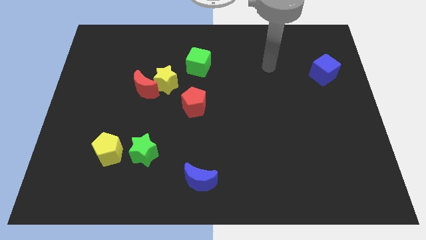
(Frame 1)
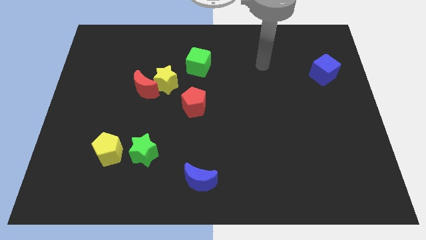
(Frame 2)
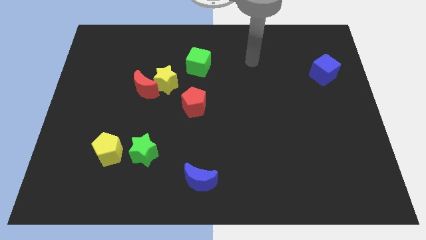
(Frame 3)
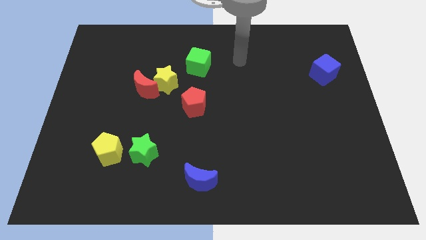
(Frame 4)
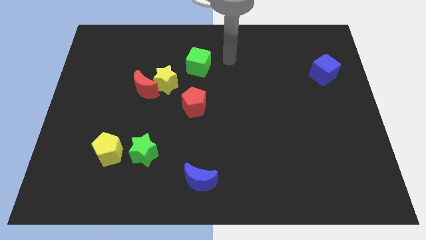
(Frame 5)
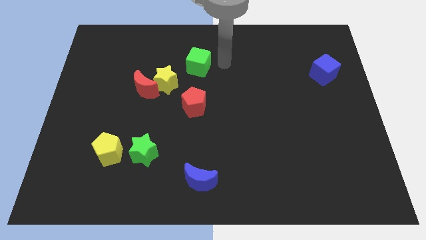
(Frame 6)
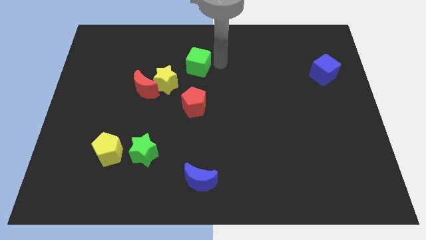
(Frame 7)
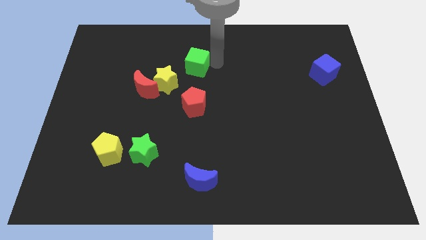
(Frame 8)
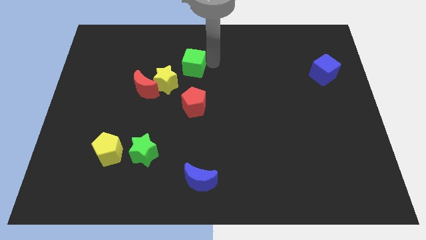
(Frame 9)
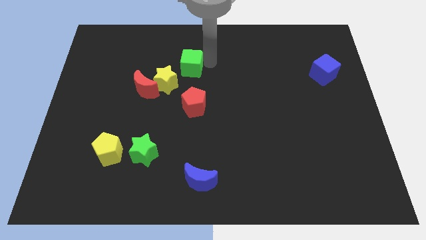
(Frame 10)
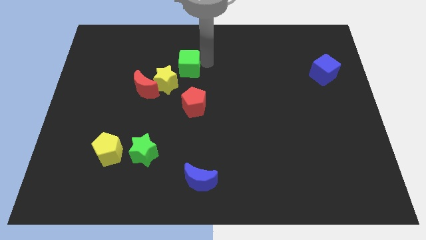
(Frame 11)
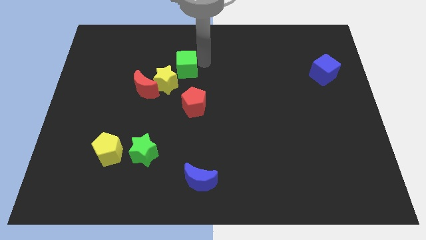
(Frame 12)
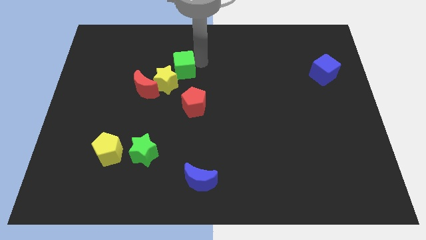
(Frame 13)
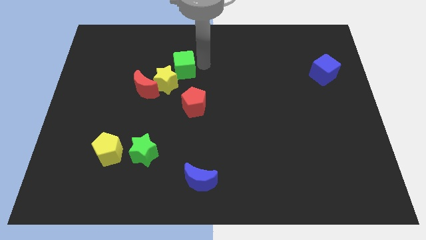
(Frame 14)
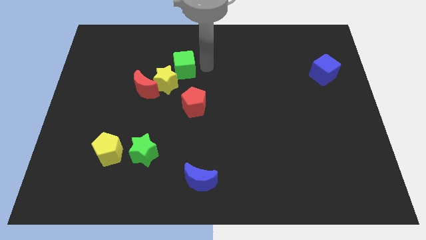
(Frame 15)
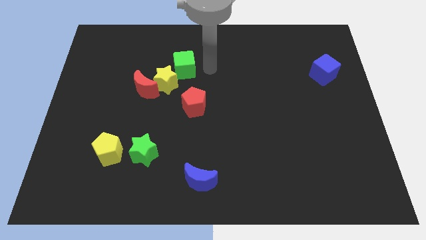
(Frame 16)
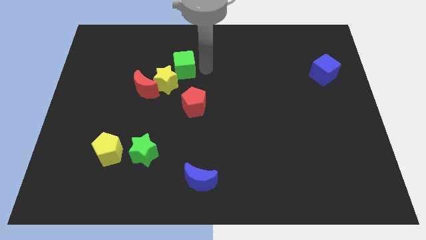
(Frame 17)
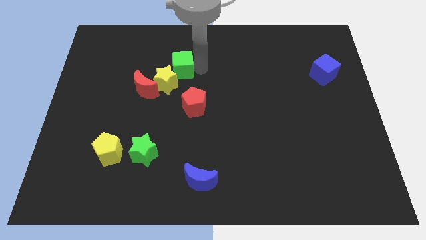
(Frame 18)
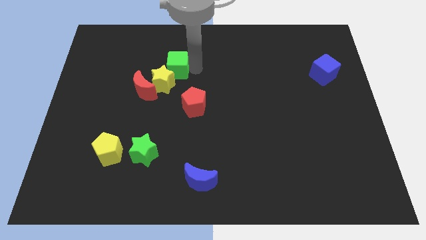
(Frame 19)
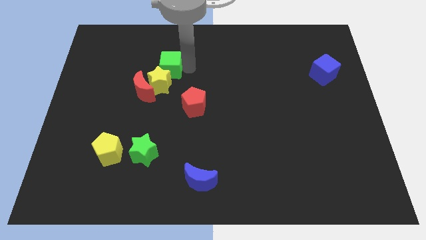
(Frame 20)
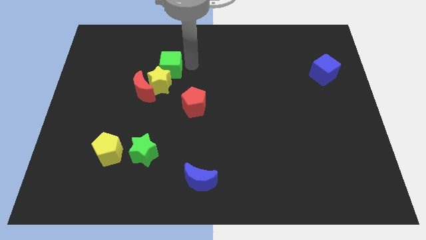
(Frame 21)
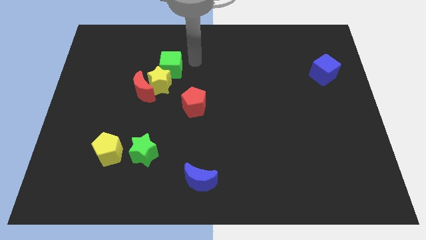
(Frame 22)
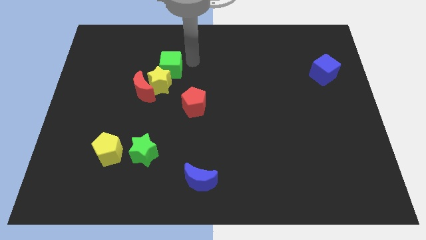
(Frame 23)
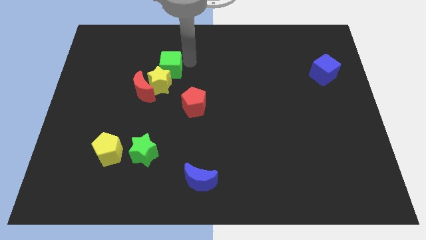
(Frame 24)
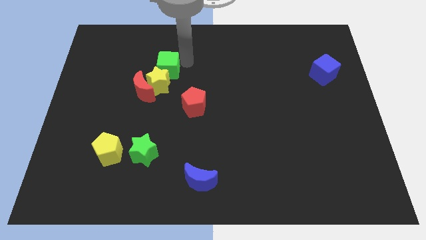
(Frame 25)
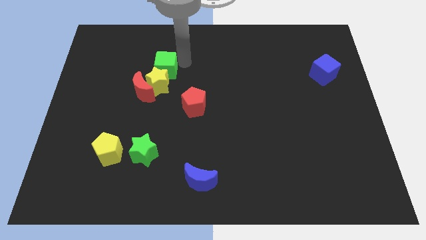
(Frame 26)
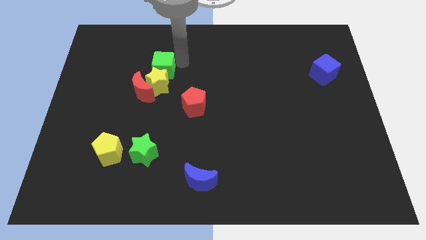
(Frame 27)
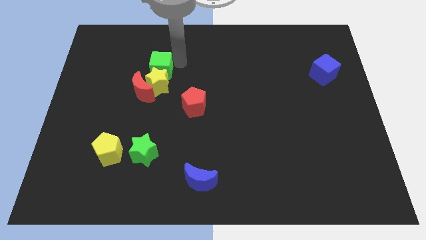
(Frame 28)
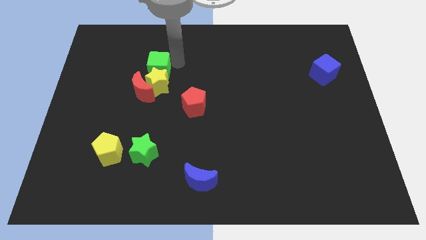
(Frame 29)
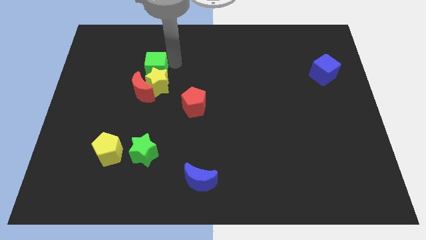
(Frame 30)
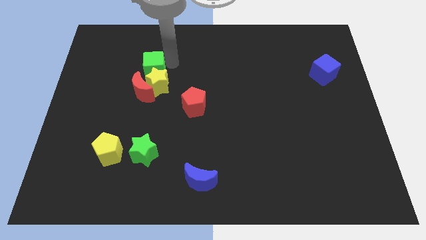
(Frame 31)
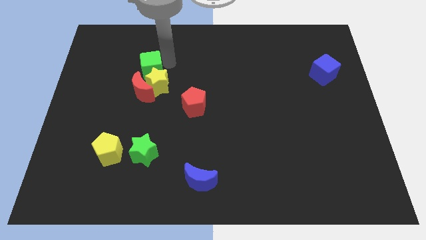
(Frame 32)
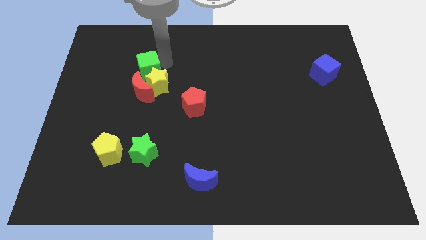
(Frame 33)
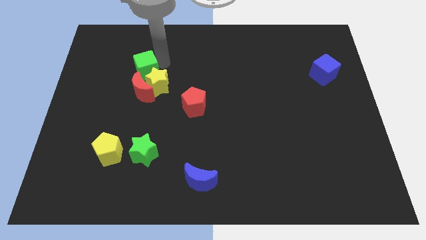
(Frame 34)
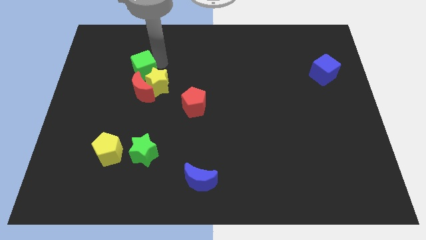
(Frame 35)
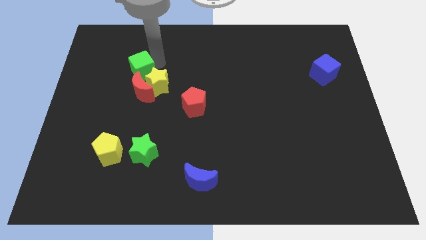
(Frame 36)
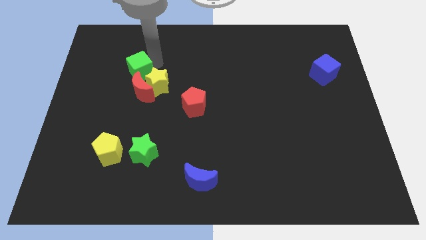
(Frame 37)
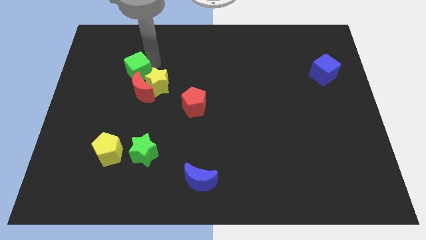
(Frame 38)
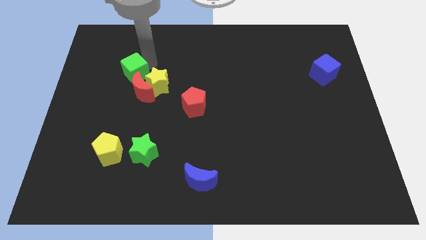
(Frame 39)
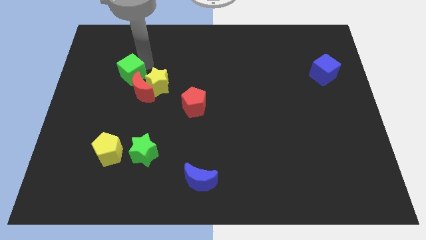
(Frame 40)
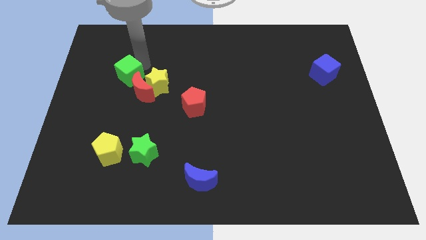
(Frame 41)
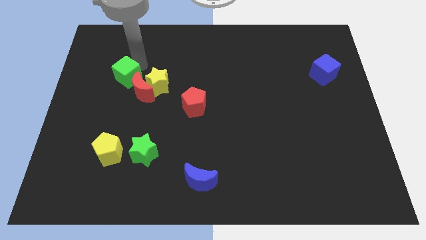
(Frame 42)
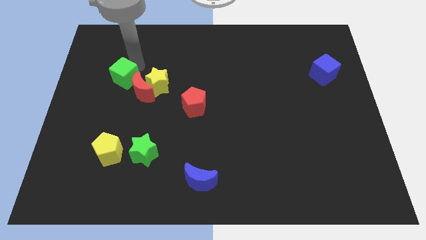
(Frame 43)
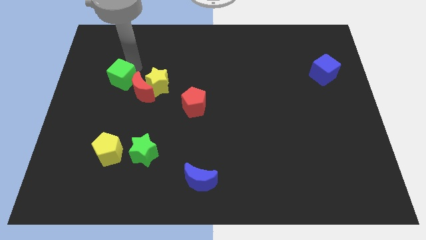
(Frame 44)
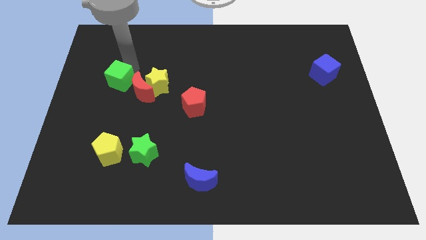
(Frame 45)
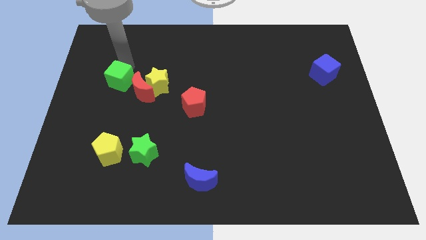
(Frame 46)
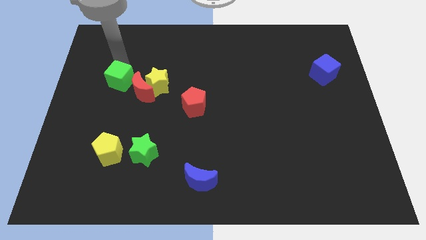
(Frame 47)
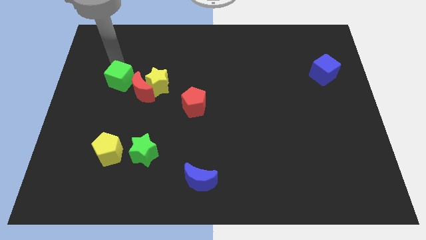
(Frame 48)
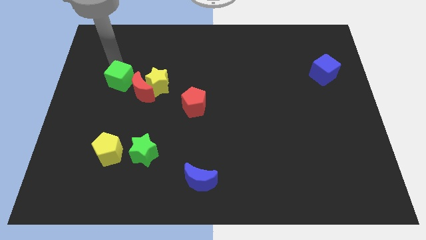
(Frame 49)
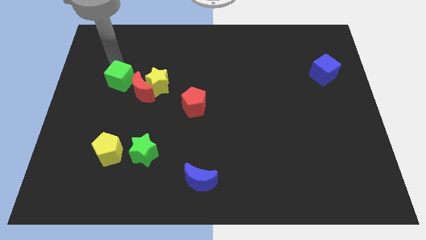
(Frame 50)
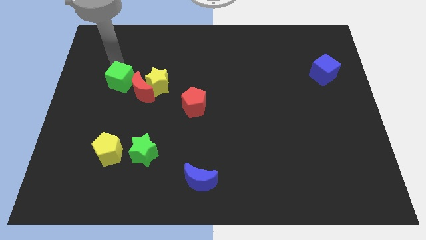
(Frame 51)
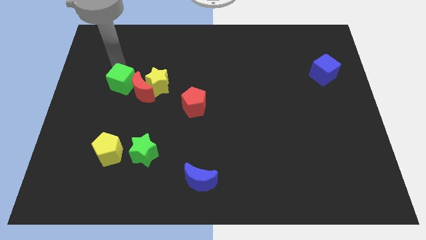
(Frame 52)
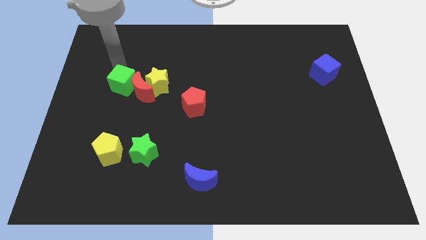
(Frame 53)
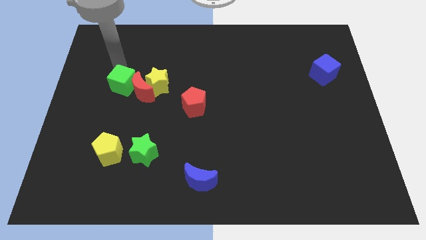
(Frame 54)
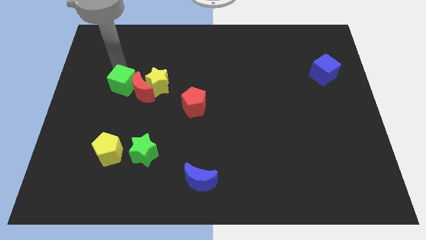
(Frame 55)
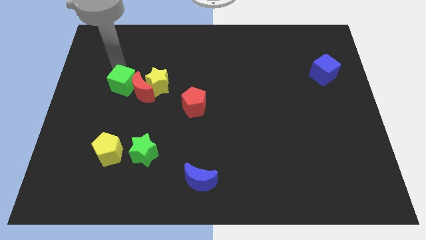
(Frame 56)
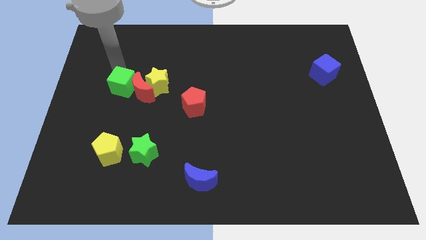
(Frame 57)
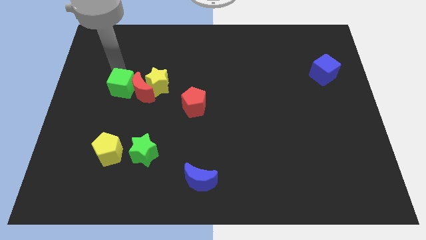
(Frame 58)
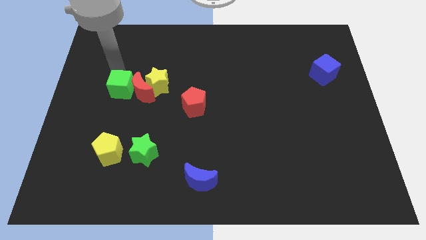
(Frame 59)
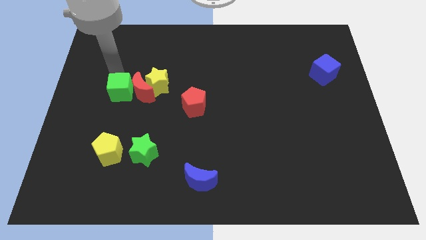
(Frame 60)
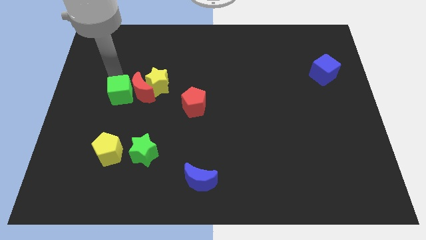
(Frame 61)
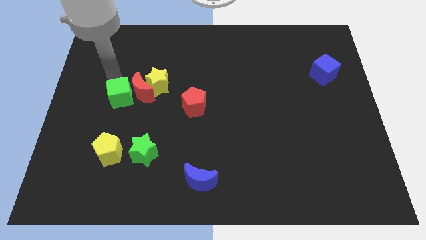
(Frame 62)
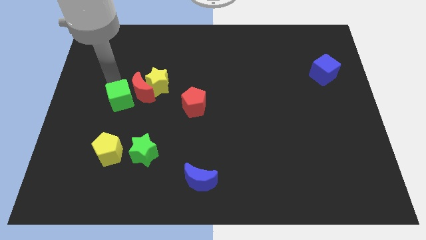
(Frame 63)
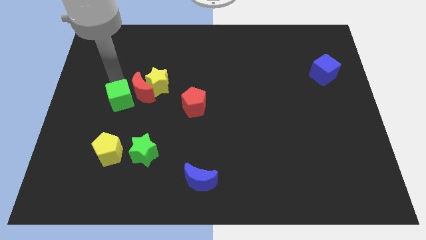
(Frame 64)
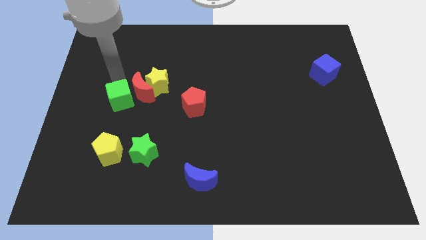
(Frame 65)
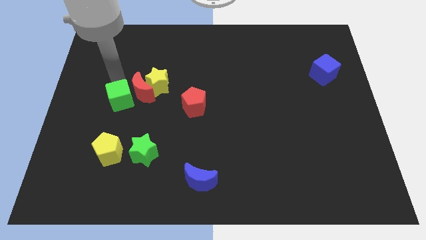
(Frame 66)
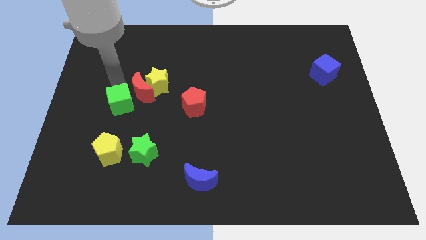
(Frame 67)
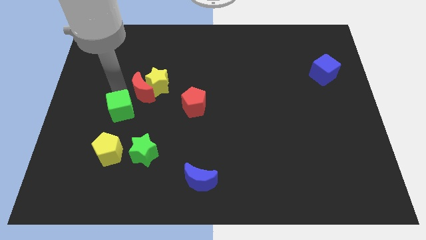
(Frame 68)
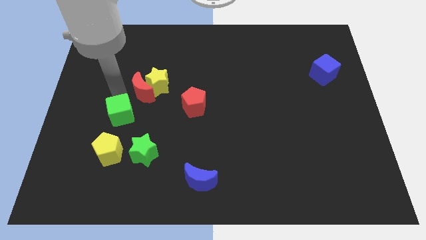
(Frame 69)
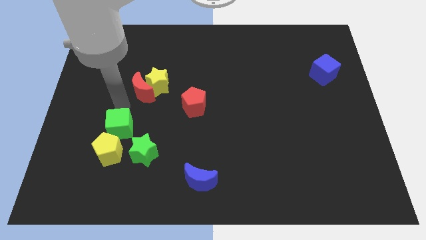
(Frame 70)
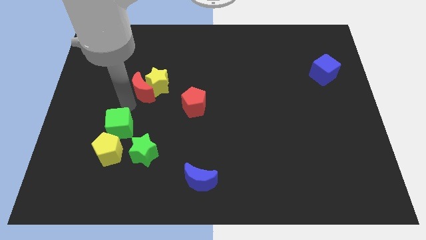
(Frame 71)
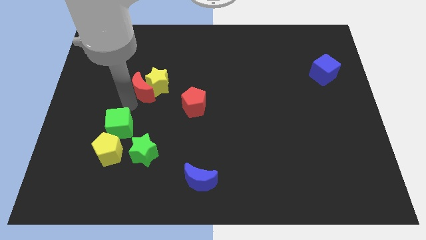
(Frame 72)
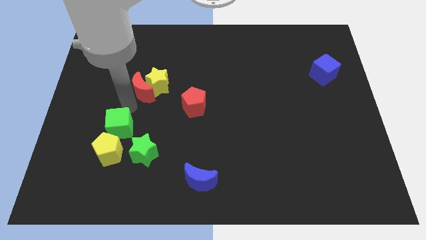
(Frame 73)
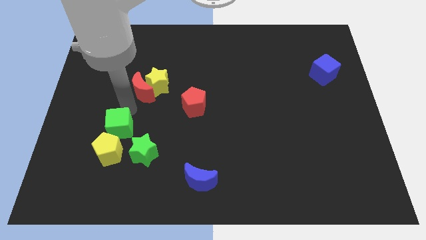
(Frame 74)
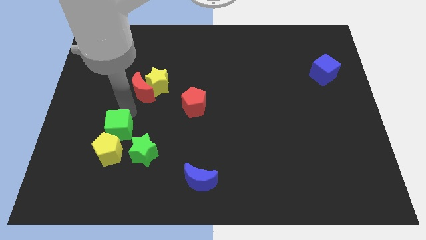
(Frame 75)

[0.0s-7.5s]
put the green cube towards the yellow pentagon
